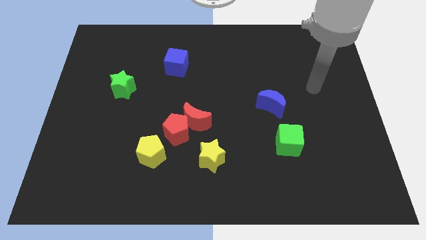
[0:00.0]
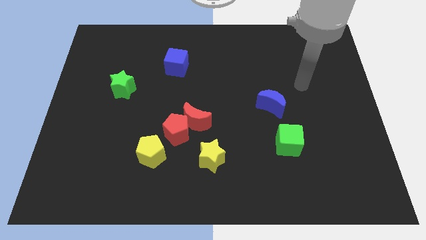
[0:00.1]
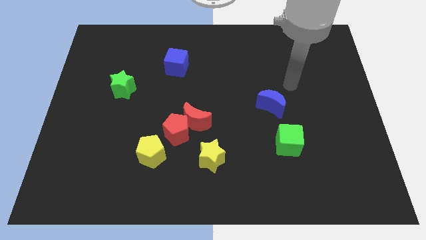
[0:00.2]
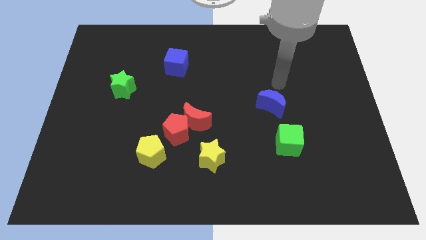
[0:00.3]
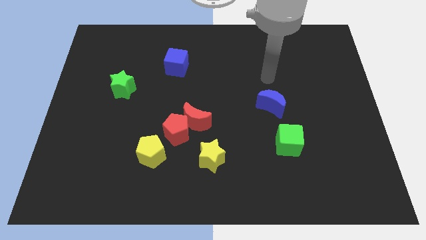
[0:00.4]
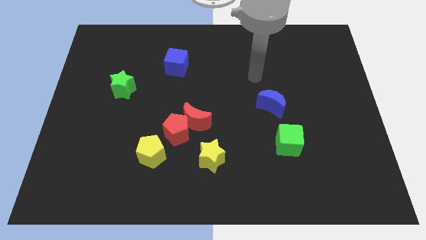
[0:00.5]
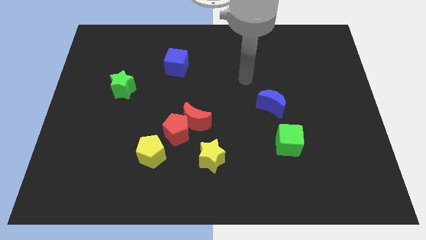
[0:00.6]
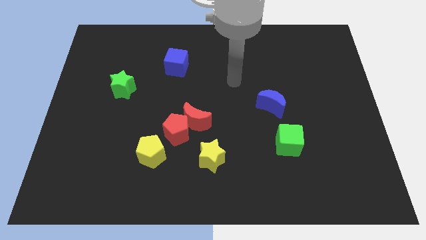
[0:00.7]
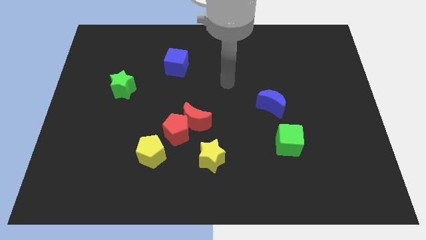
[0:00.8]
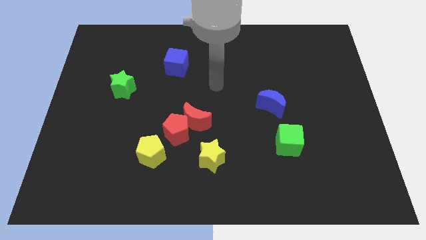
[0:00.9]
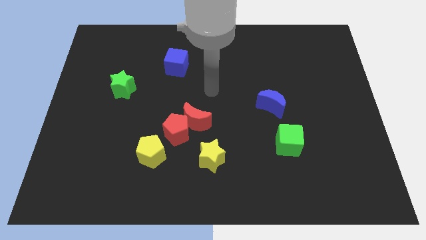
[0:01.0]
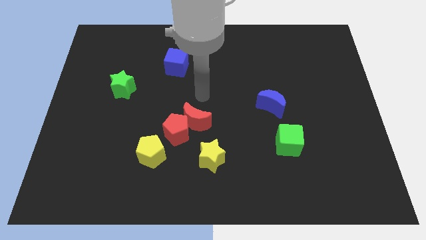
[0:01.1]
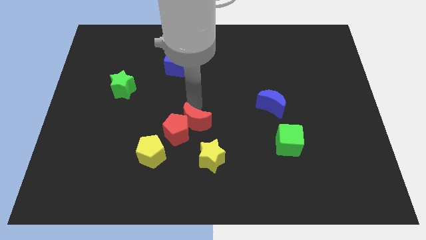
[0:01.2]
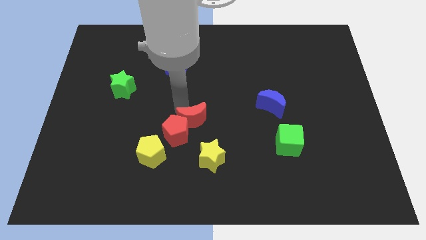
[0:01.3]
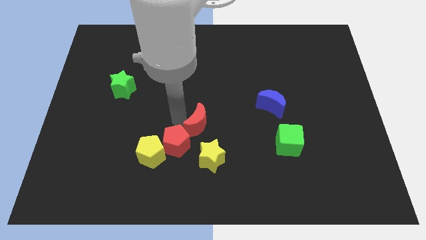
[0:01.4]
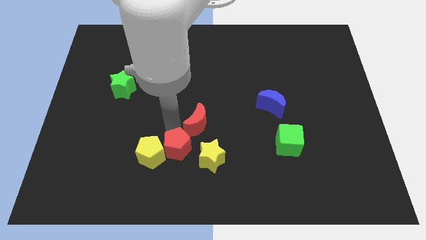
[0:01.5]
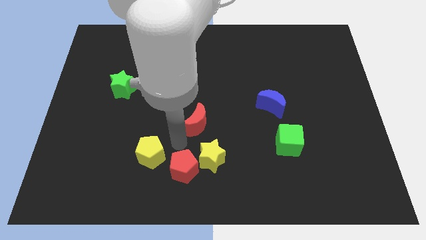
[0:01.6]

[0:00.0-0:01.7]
move the red moon away from the red pentagon

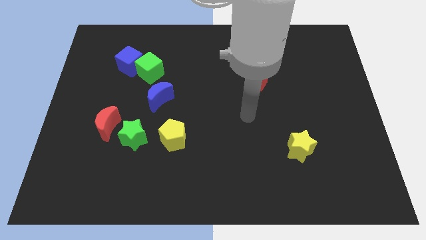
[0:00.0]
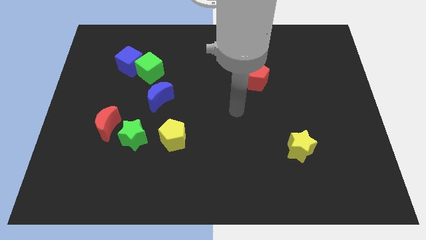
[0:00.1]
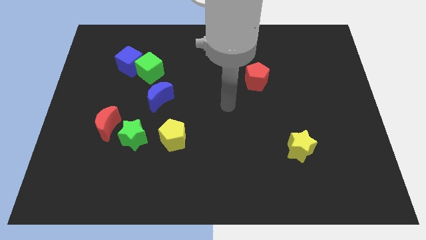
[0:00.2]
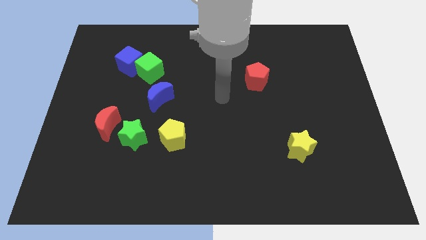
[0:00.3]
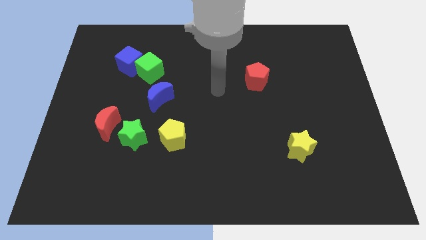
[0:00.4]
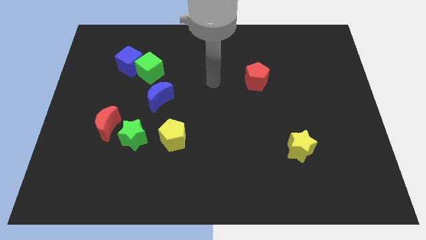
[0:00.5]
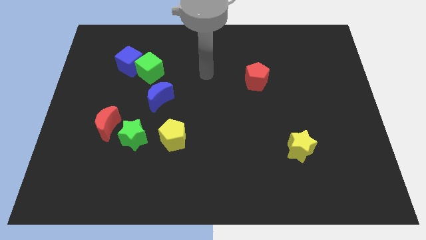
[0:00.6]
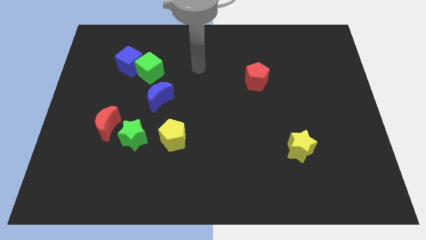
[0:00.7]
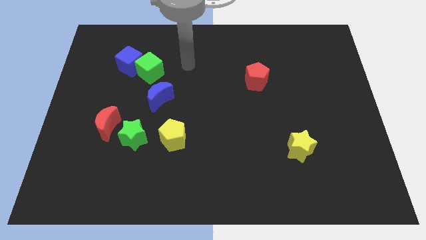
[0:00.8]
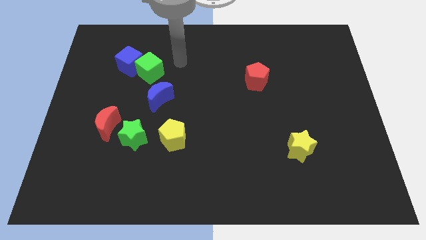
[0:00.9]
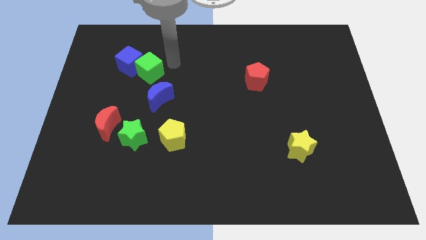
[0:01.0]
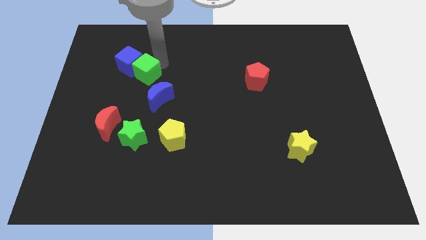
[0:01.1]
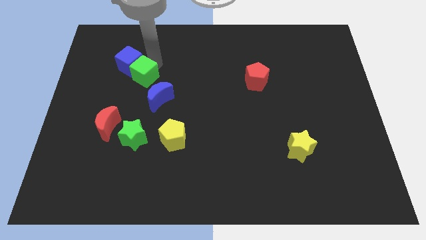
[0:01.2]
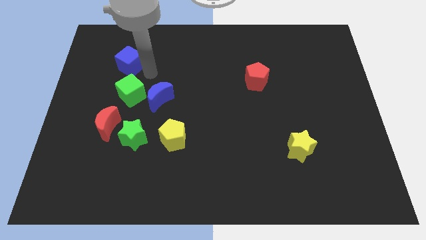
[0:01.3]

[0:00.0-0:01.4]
separate the blue cube from the green cube

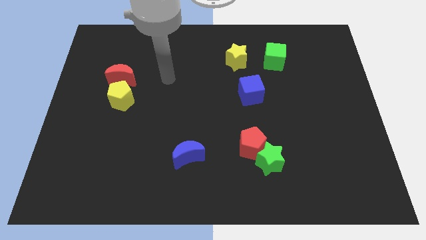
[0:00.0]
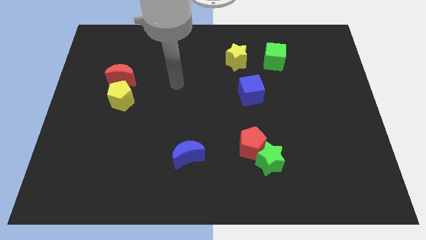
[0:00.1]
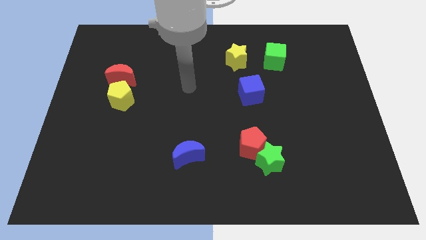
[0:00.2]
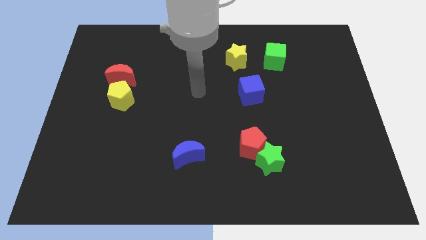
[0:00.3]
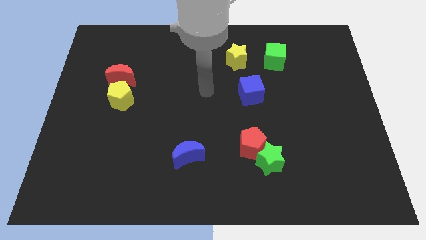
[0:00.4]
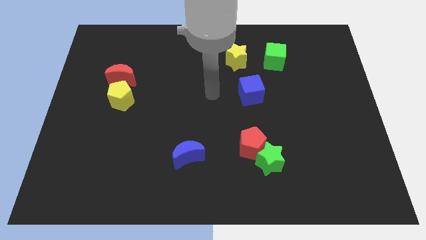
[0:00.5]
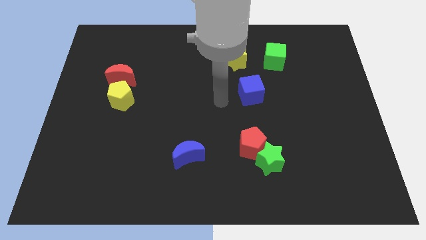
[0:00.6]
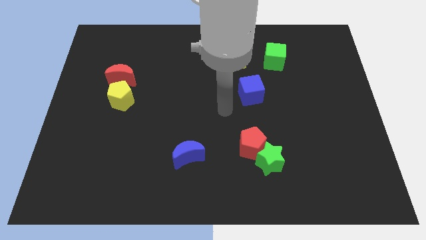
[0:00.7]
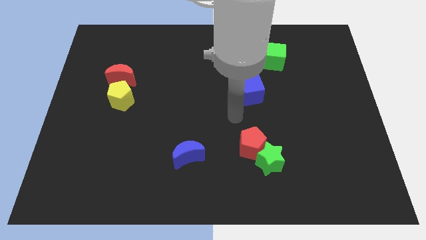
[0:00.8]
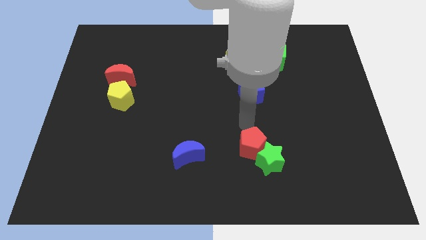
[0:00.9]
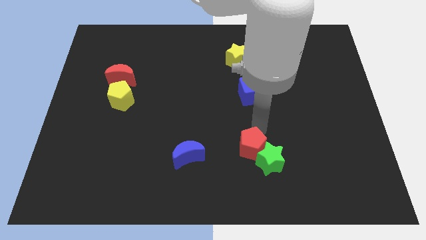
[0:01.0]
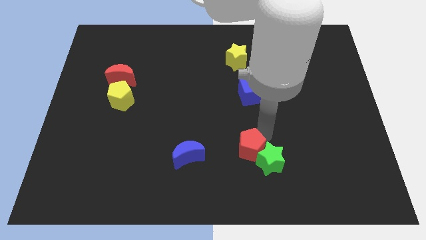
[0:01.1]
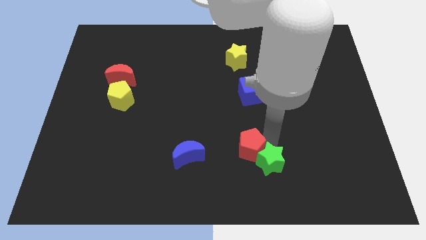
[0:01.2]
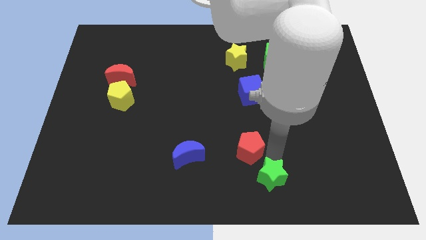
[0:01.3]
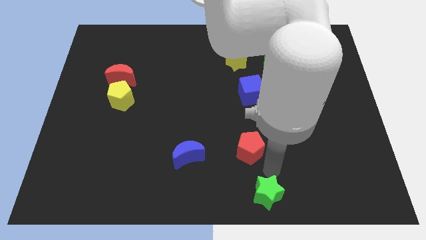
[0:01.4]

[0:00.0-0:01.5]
pull the red pentagon apart from the green star

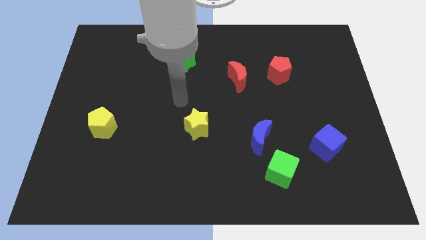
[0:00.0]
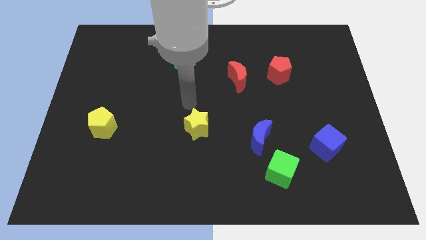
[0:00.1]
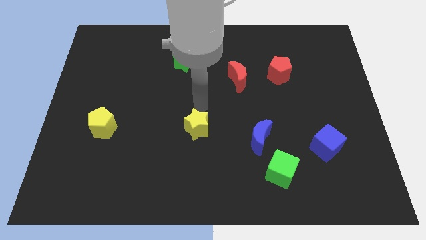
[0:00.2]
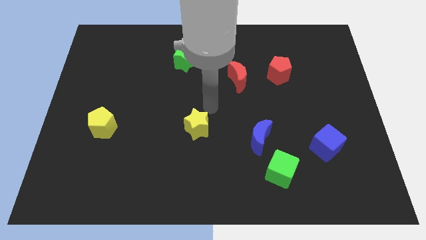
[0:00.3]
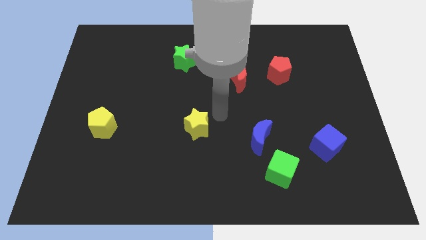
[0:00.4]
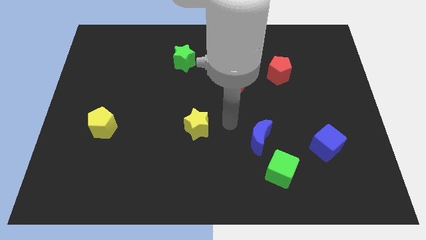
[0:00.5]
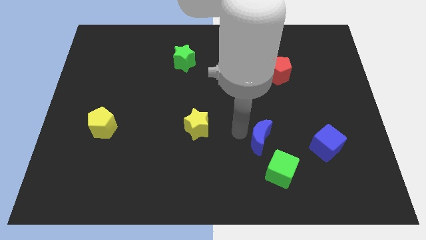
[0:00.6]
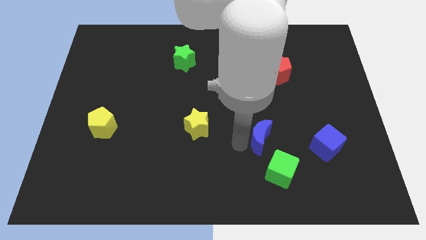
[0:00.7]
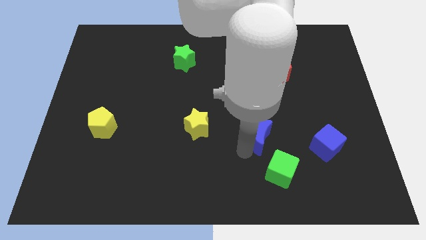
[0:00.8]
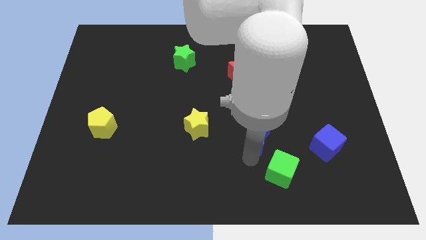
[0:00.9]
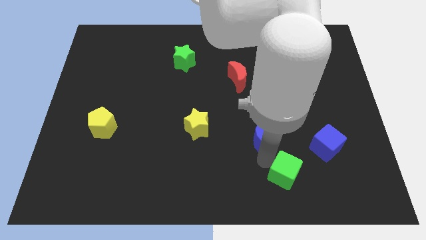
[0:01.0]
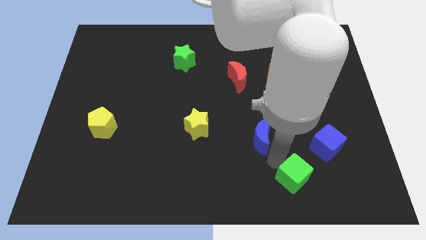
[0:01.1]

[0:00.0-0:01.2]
pull the blue moon apart from the green cube

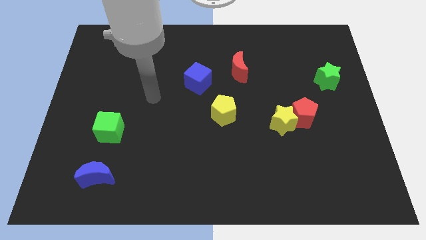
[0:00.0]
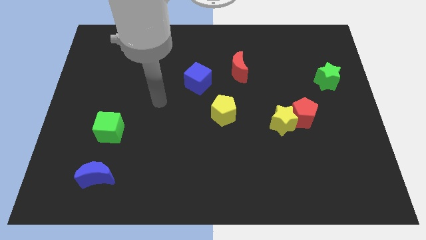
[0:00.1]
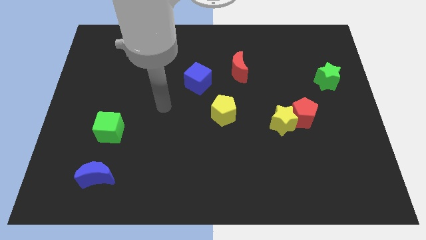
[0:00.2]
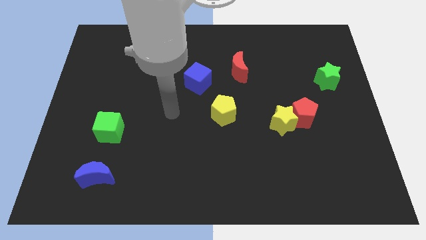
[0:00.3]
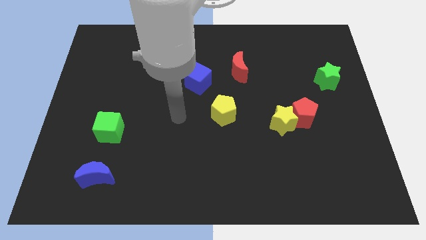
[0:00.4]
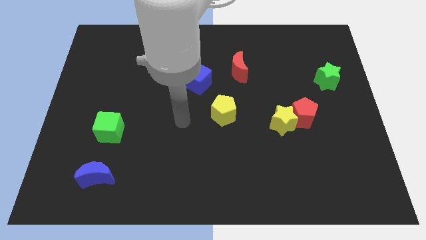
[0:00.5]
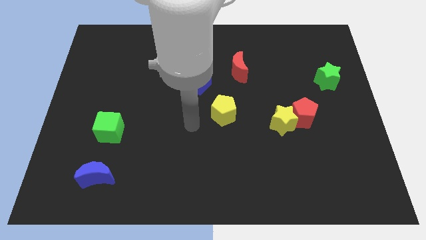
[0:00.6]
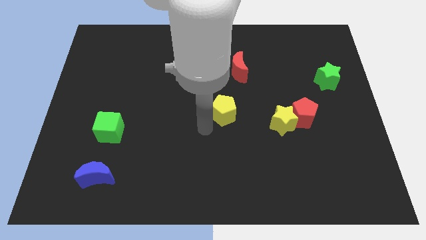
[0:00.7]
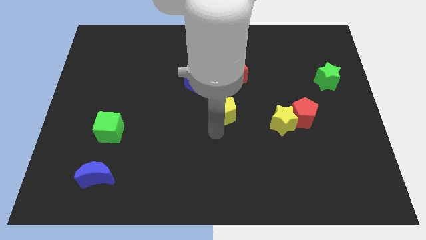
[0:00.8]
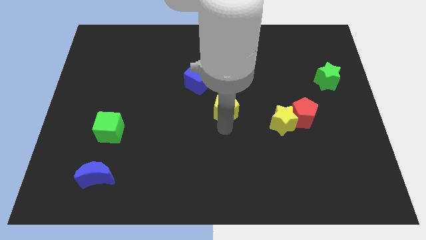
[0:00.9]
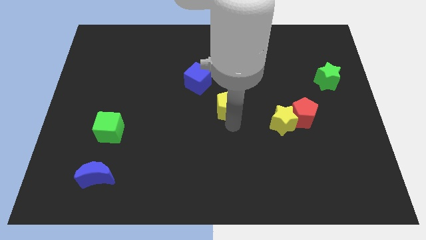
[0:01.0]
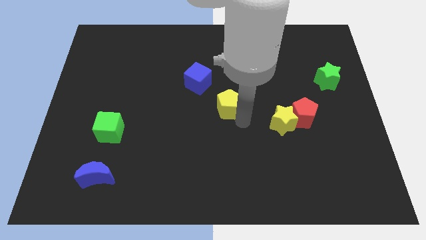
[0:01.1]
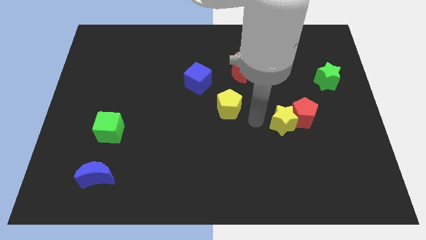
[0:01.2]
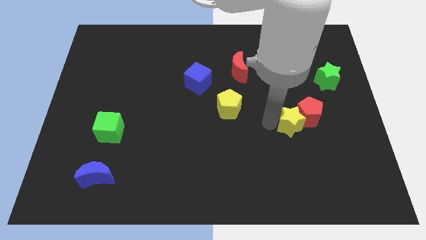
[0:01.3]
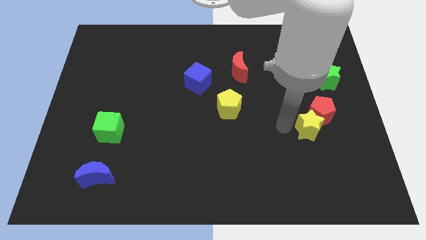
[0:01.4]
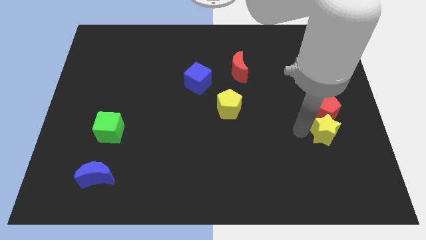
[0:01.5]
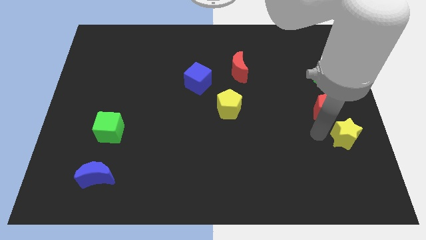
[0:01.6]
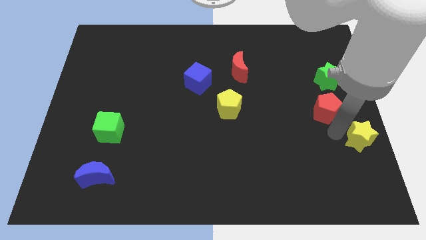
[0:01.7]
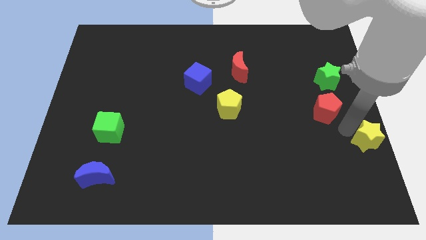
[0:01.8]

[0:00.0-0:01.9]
move the red pentagon away from the yellow star

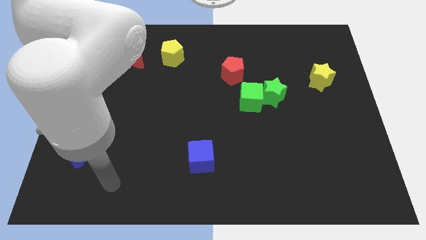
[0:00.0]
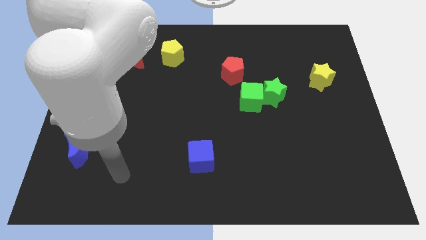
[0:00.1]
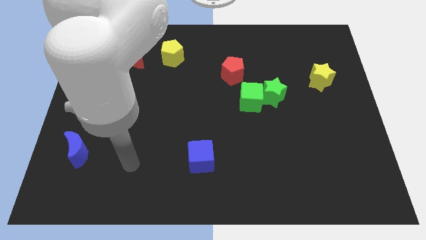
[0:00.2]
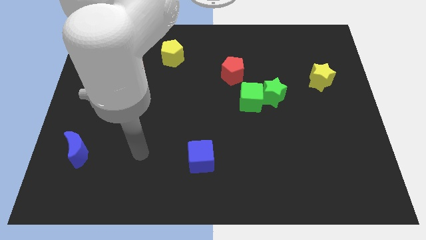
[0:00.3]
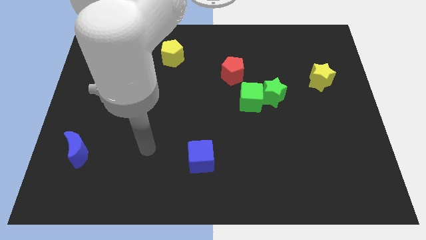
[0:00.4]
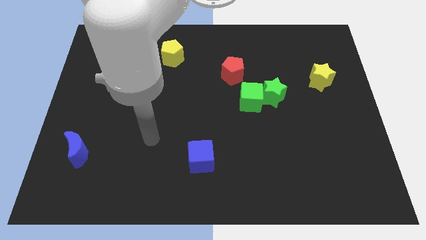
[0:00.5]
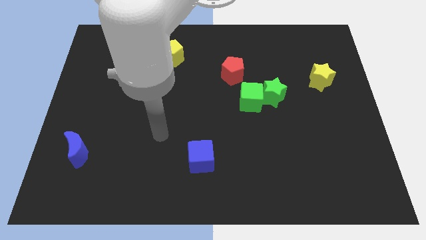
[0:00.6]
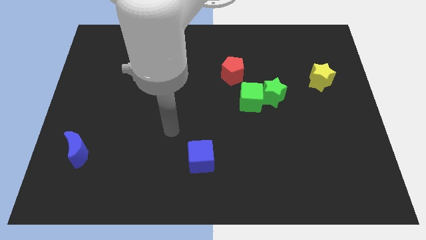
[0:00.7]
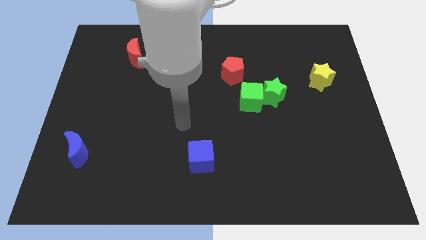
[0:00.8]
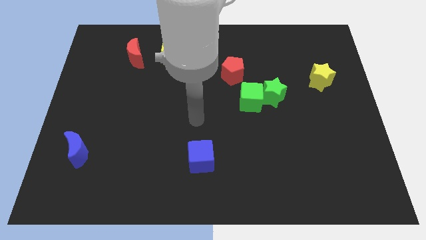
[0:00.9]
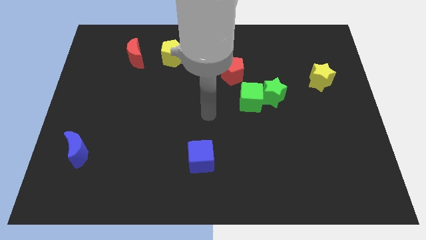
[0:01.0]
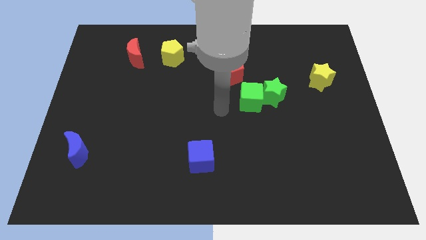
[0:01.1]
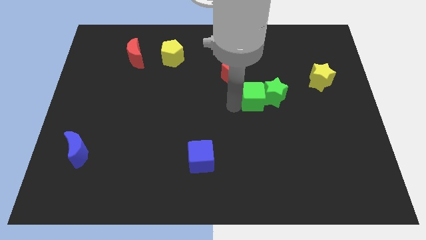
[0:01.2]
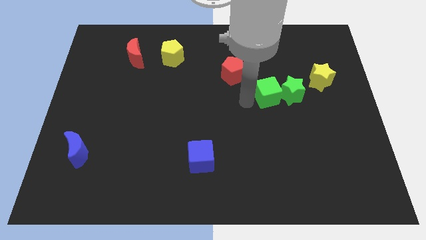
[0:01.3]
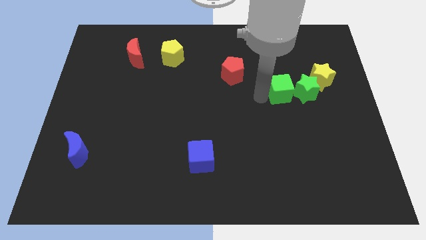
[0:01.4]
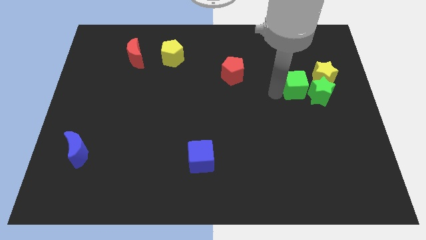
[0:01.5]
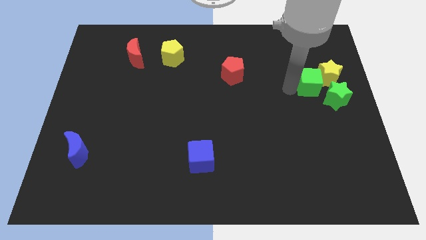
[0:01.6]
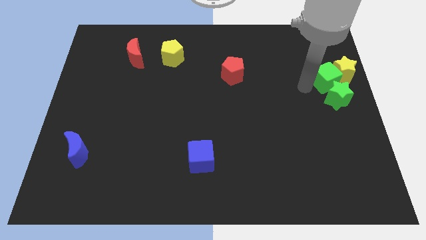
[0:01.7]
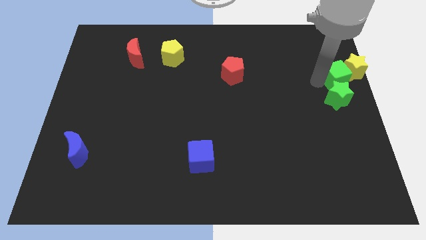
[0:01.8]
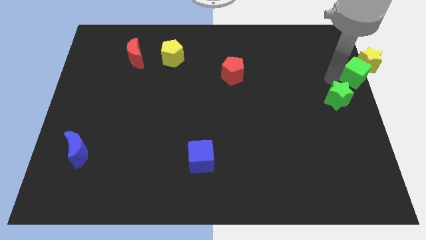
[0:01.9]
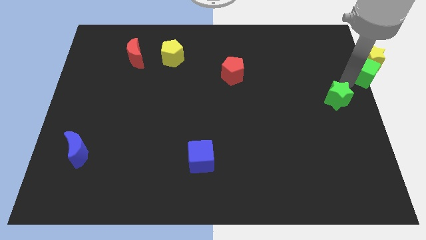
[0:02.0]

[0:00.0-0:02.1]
pull the green star apart from the green cube